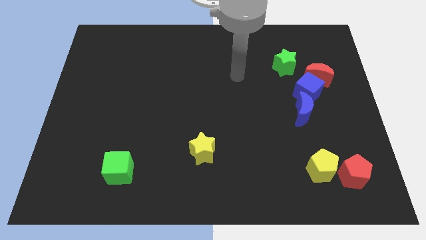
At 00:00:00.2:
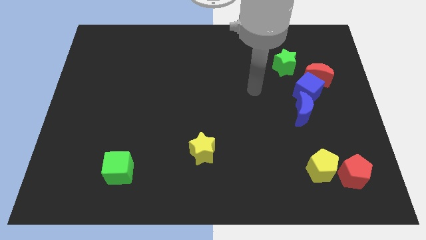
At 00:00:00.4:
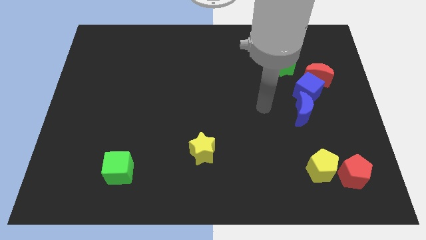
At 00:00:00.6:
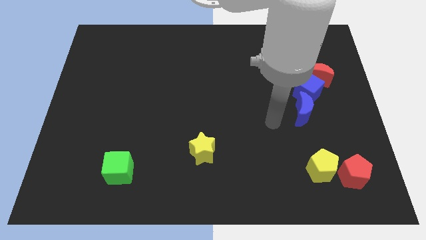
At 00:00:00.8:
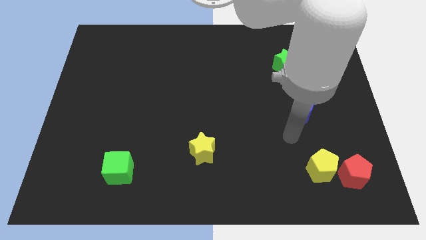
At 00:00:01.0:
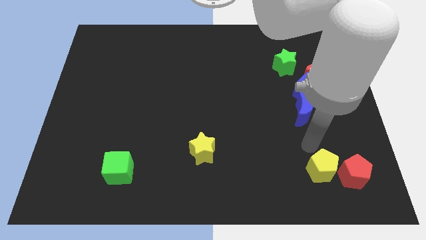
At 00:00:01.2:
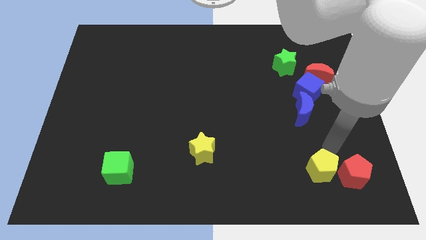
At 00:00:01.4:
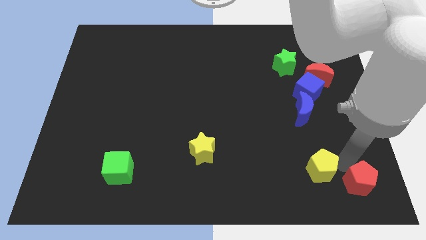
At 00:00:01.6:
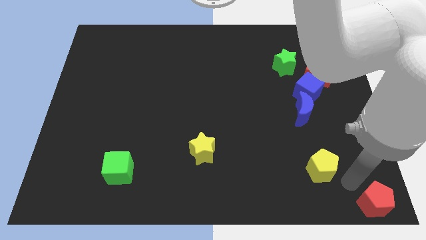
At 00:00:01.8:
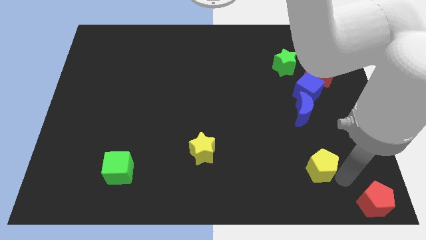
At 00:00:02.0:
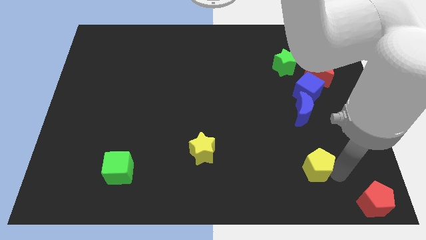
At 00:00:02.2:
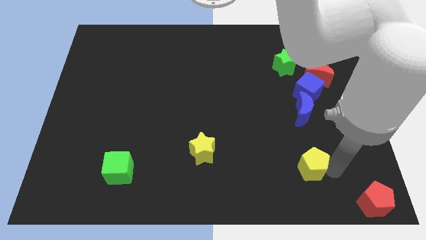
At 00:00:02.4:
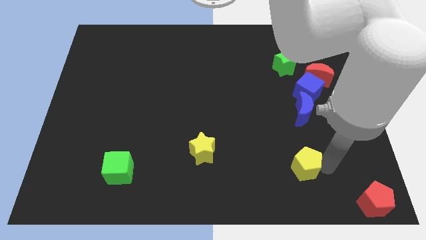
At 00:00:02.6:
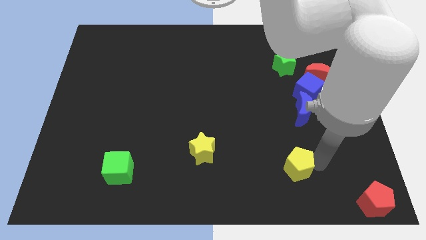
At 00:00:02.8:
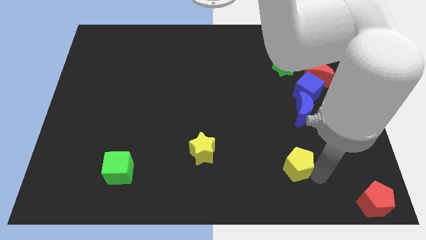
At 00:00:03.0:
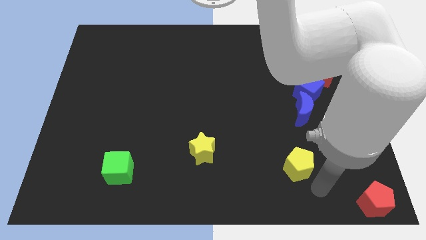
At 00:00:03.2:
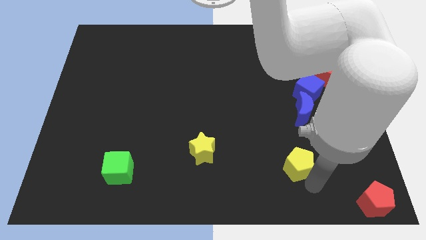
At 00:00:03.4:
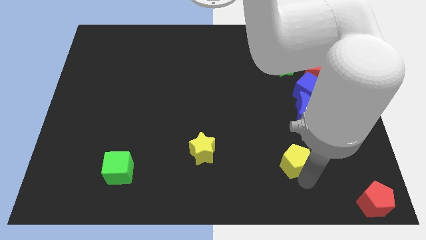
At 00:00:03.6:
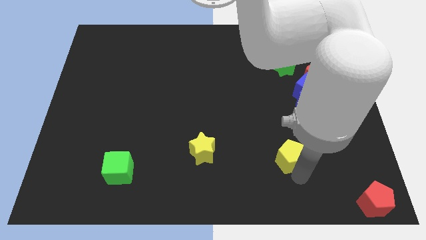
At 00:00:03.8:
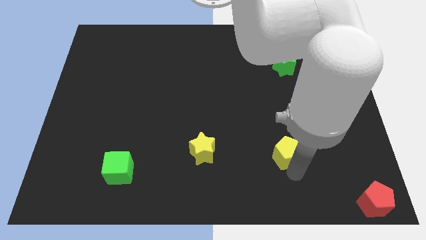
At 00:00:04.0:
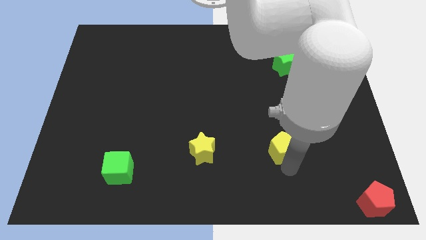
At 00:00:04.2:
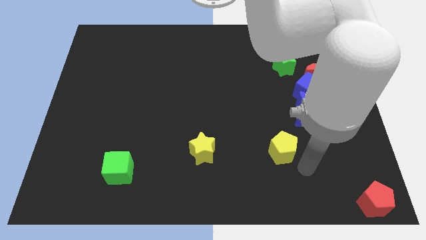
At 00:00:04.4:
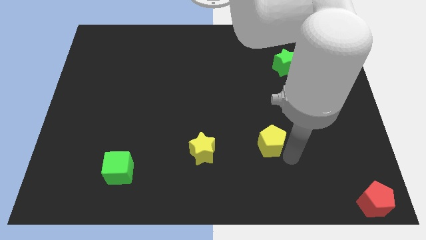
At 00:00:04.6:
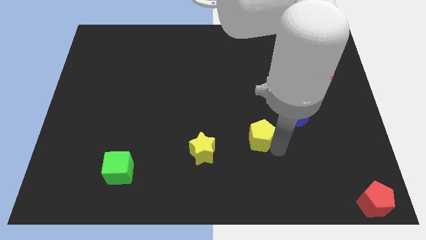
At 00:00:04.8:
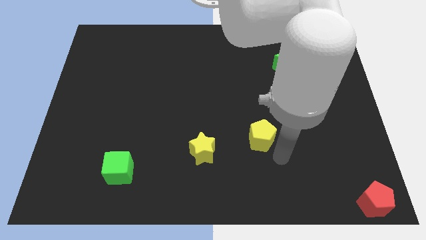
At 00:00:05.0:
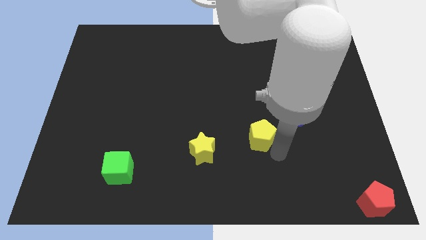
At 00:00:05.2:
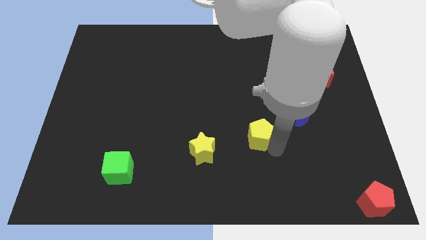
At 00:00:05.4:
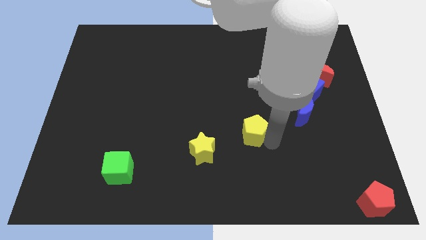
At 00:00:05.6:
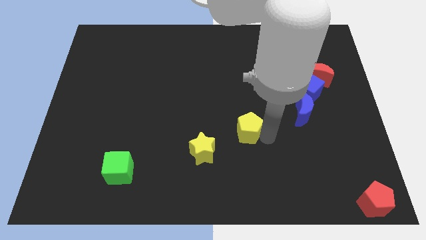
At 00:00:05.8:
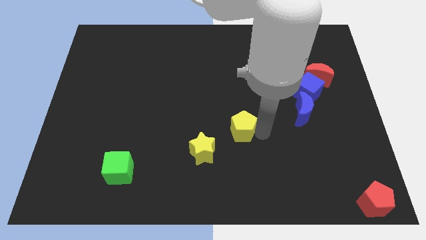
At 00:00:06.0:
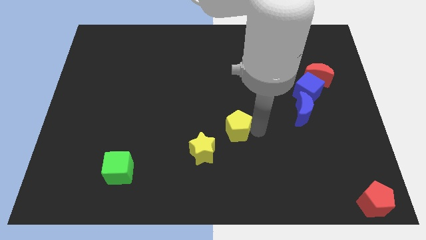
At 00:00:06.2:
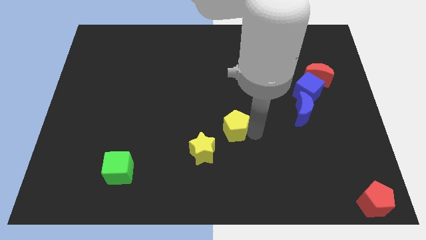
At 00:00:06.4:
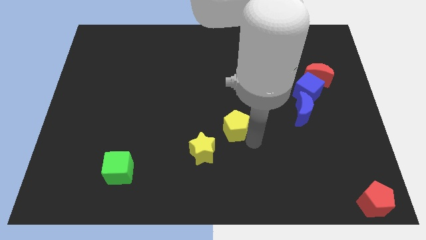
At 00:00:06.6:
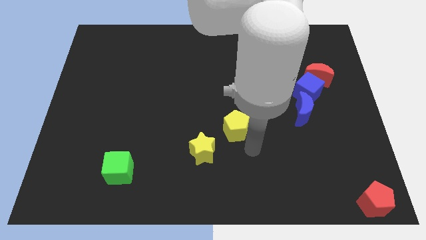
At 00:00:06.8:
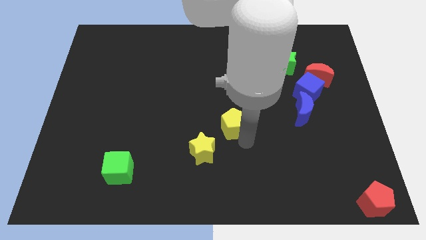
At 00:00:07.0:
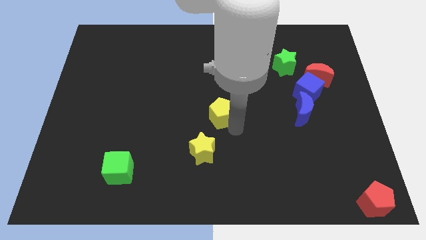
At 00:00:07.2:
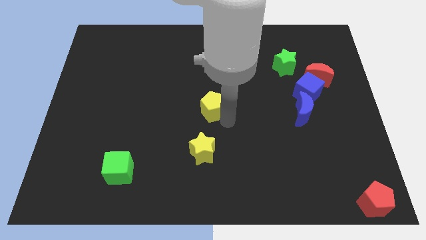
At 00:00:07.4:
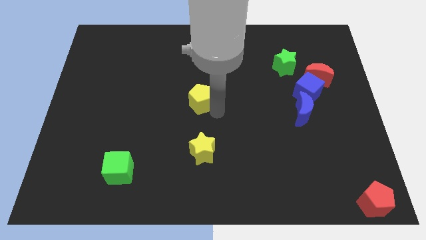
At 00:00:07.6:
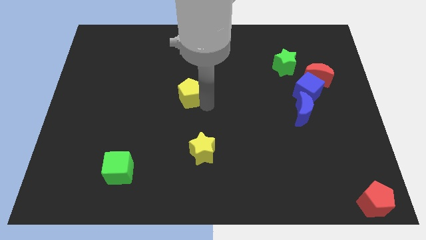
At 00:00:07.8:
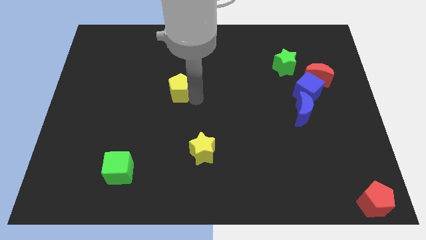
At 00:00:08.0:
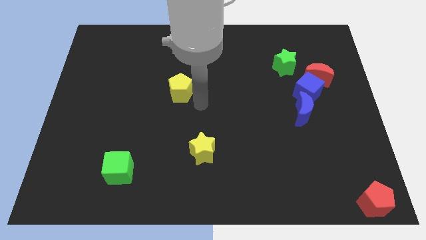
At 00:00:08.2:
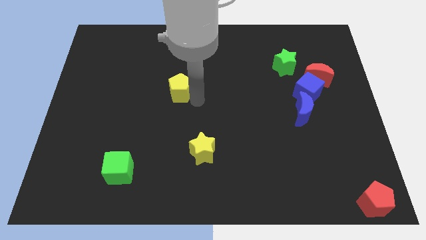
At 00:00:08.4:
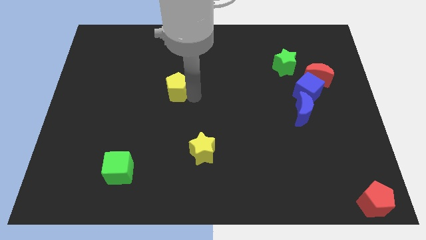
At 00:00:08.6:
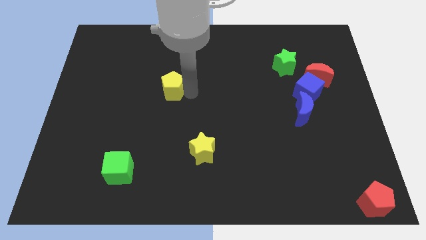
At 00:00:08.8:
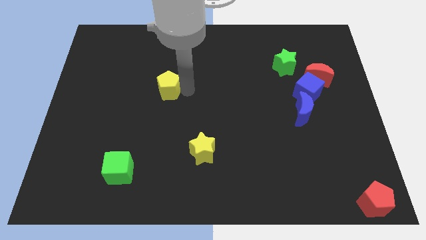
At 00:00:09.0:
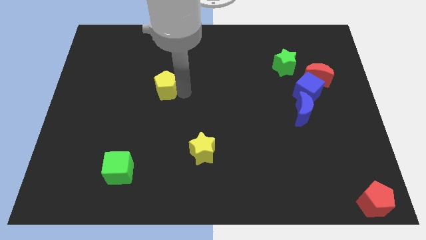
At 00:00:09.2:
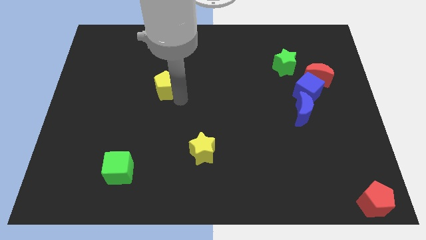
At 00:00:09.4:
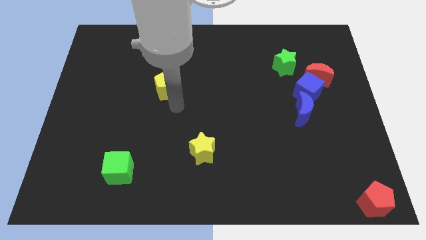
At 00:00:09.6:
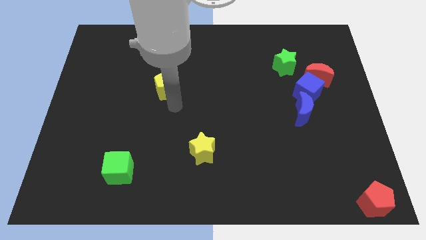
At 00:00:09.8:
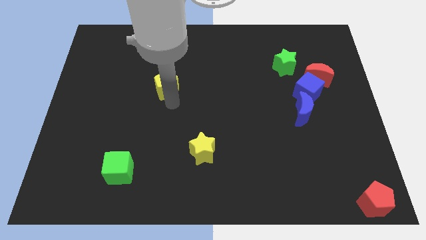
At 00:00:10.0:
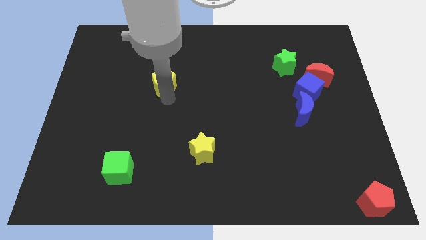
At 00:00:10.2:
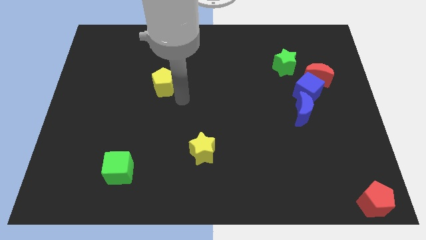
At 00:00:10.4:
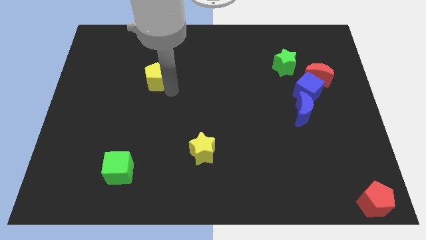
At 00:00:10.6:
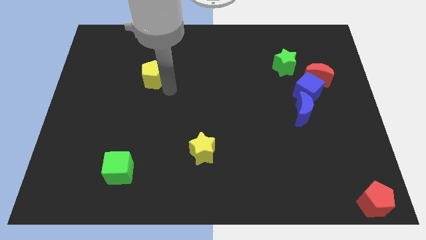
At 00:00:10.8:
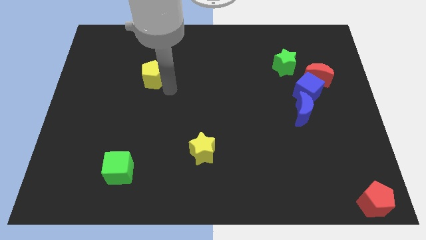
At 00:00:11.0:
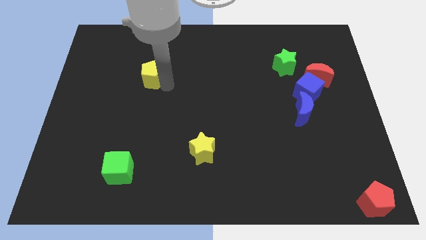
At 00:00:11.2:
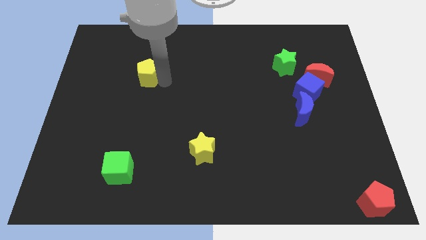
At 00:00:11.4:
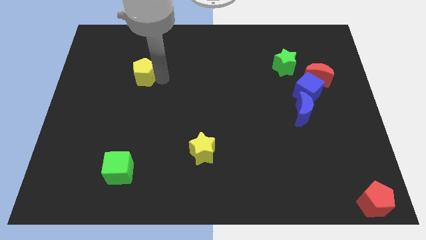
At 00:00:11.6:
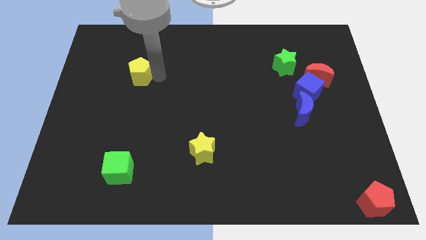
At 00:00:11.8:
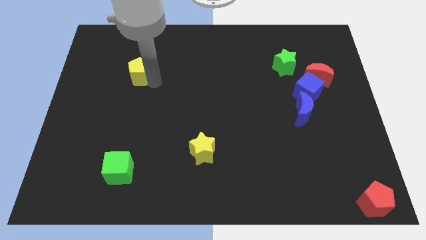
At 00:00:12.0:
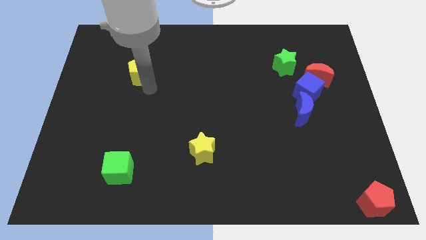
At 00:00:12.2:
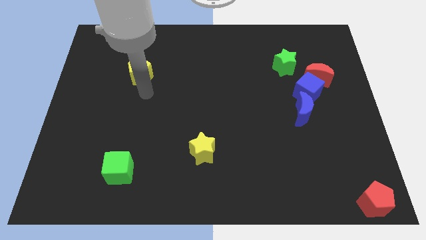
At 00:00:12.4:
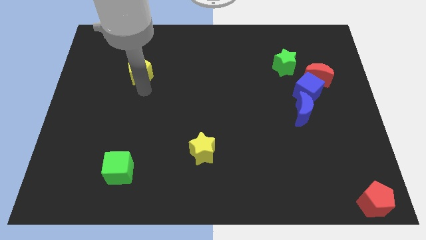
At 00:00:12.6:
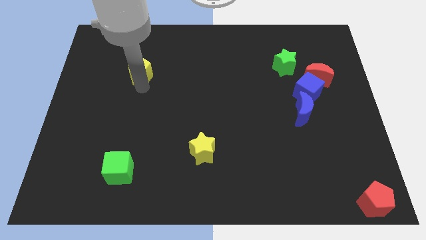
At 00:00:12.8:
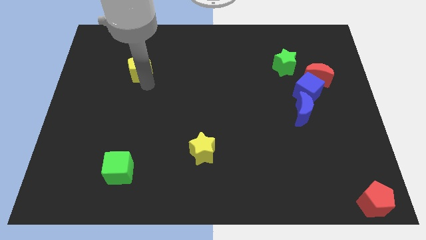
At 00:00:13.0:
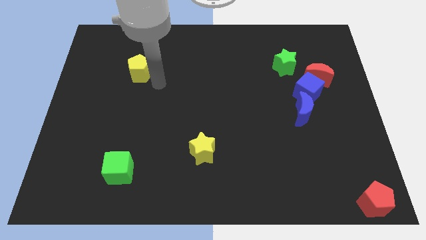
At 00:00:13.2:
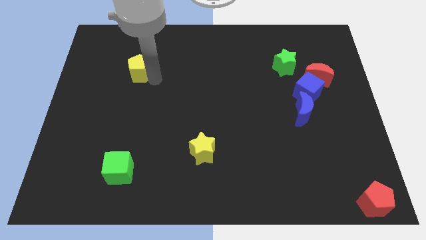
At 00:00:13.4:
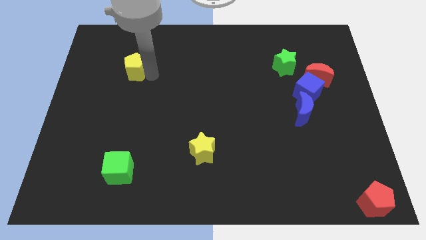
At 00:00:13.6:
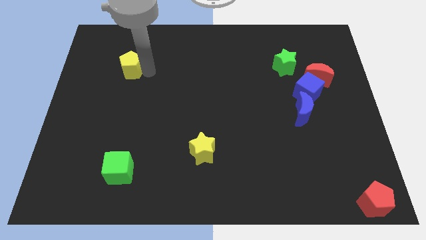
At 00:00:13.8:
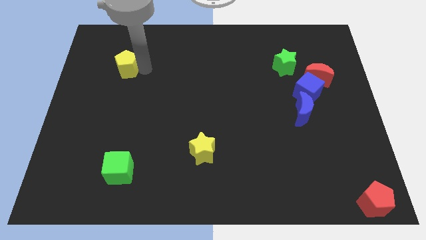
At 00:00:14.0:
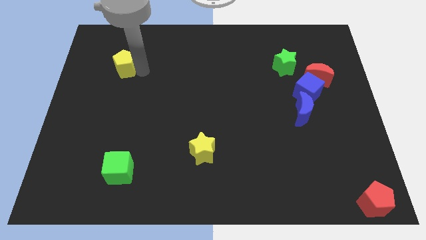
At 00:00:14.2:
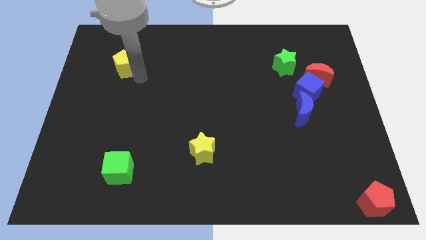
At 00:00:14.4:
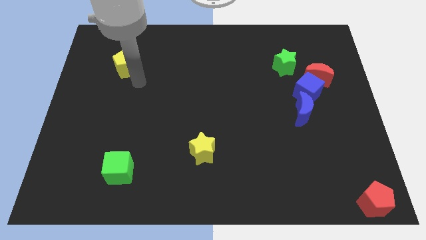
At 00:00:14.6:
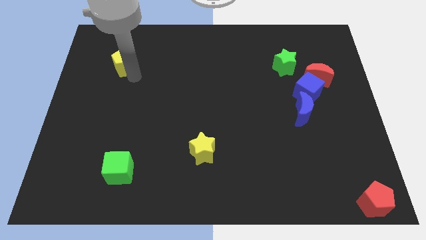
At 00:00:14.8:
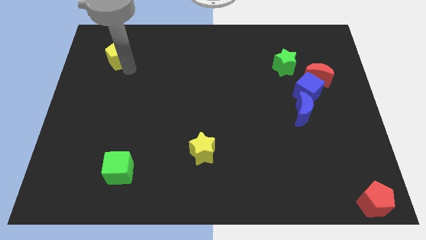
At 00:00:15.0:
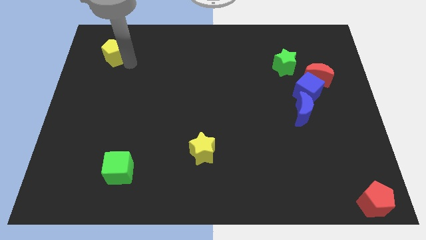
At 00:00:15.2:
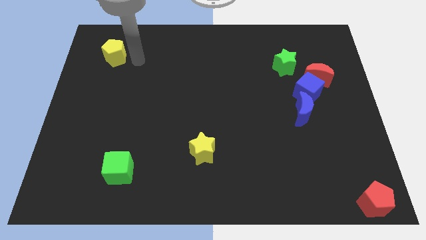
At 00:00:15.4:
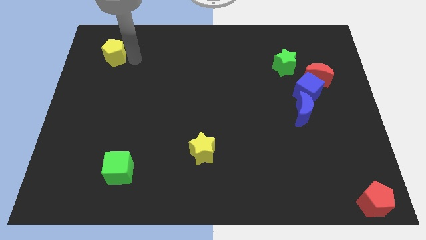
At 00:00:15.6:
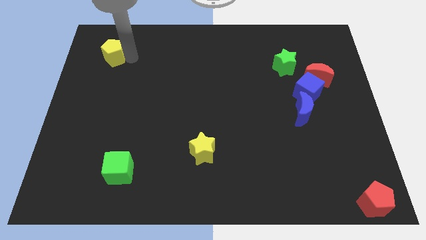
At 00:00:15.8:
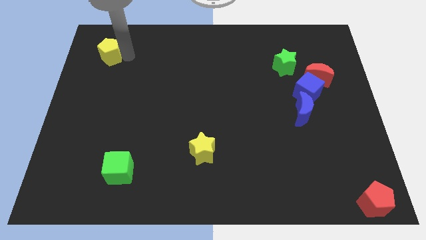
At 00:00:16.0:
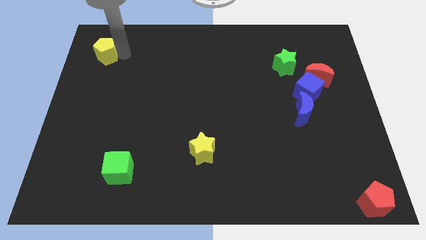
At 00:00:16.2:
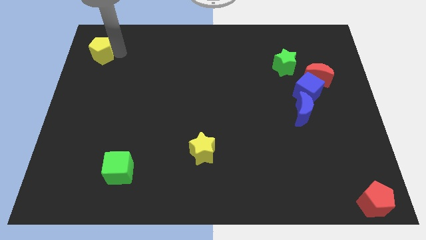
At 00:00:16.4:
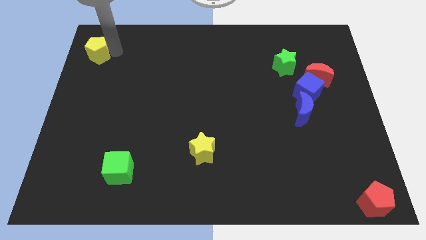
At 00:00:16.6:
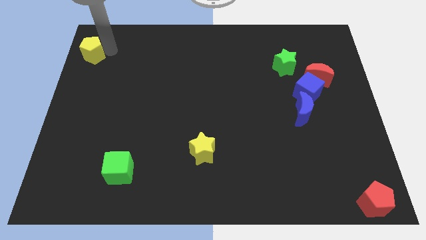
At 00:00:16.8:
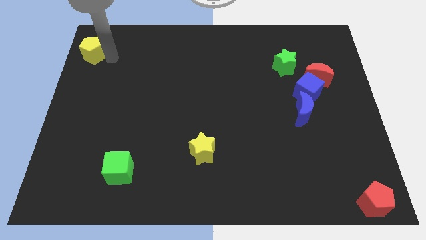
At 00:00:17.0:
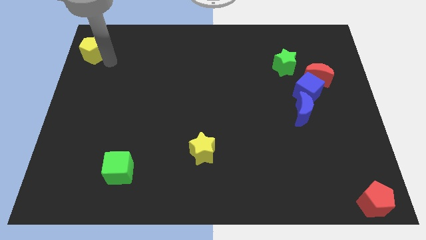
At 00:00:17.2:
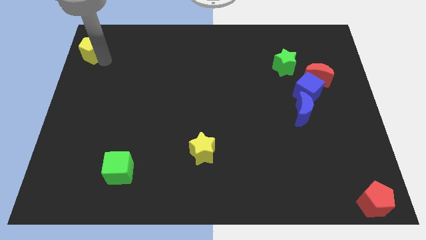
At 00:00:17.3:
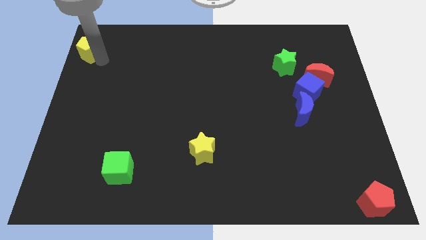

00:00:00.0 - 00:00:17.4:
slide the yellow pentagon to the upper left corner
